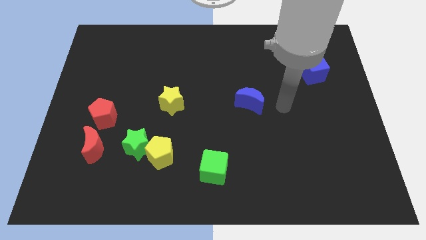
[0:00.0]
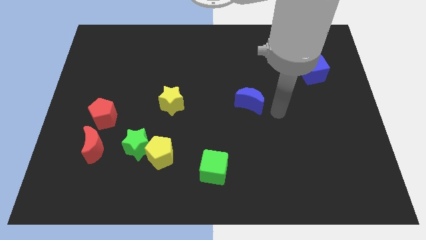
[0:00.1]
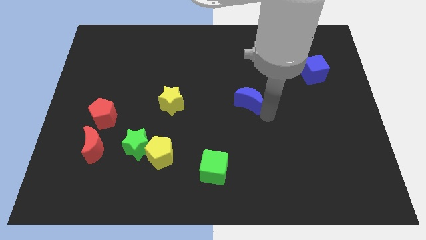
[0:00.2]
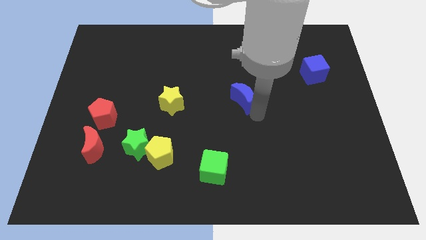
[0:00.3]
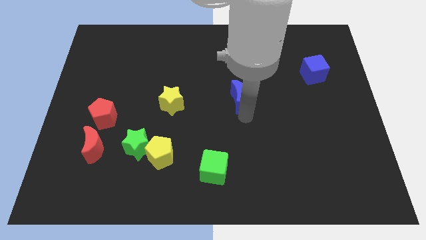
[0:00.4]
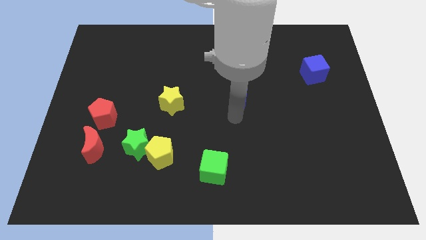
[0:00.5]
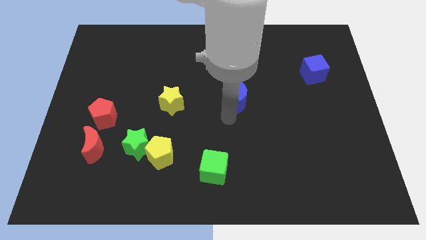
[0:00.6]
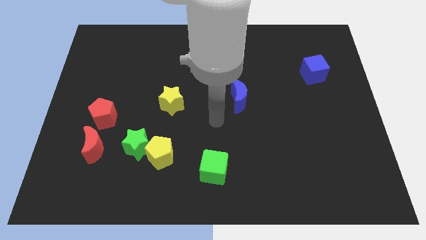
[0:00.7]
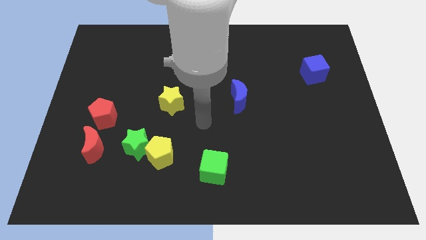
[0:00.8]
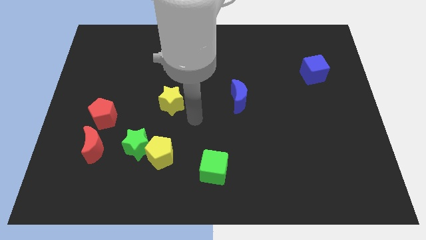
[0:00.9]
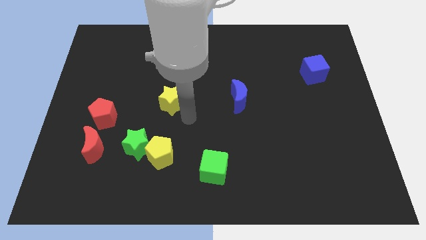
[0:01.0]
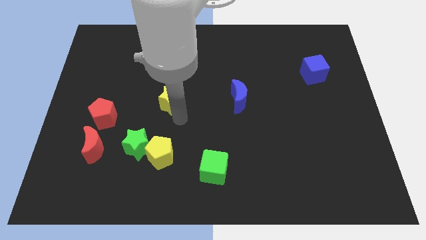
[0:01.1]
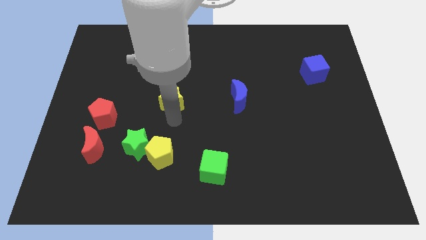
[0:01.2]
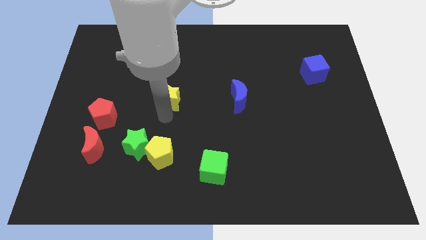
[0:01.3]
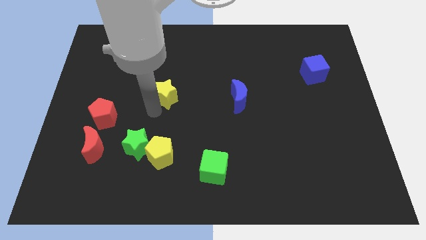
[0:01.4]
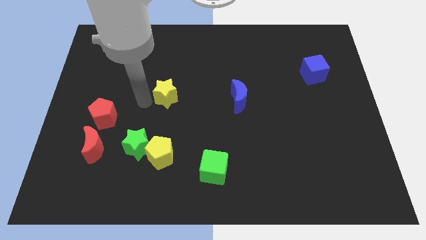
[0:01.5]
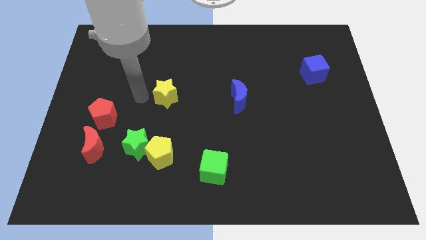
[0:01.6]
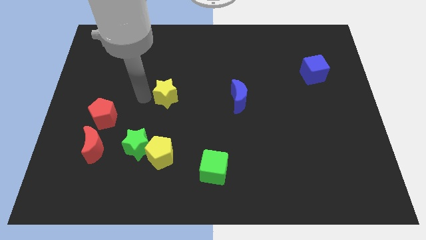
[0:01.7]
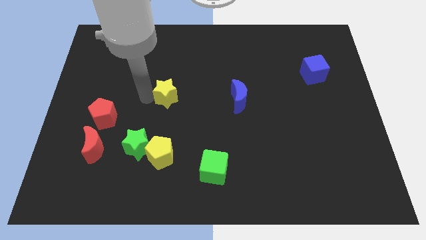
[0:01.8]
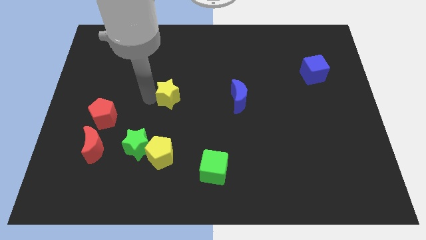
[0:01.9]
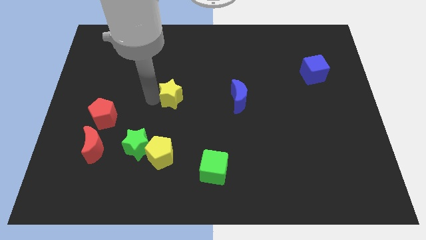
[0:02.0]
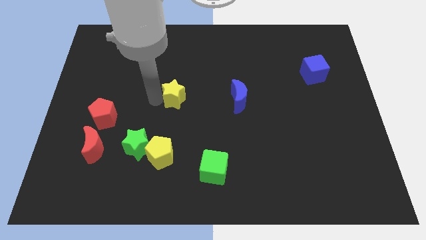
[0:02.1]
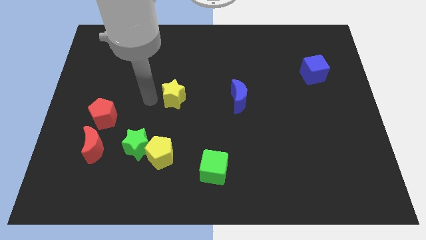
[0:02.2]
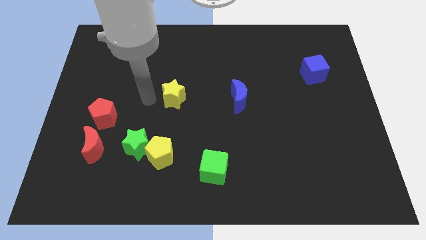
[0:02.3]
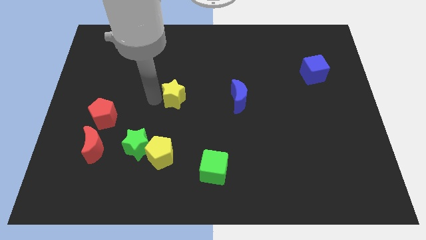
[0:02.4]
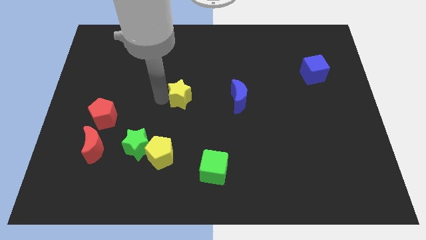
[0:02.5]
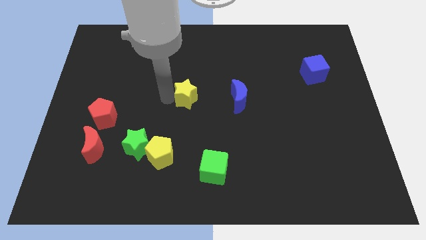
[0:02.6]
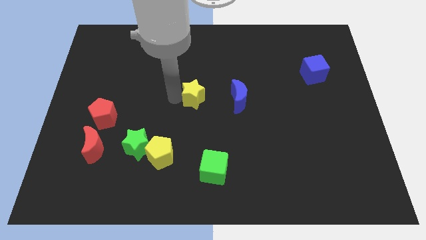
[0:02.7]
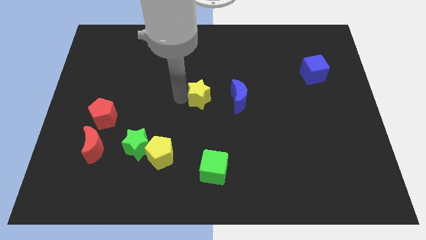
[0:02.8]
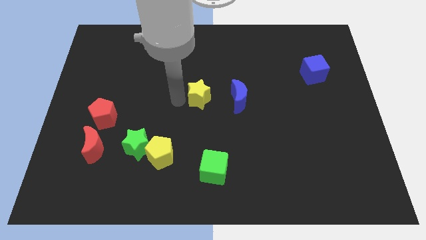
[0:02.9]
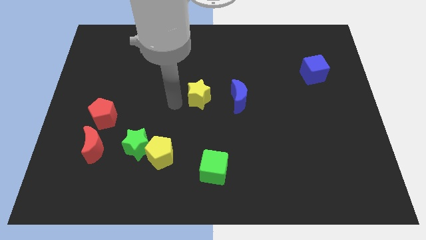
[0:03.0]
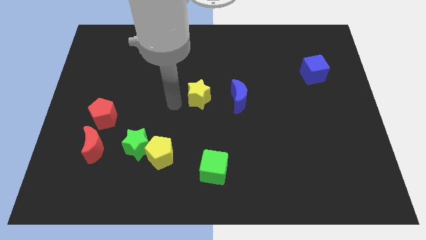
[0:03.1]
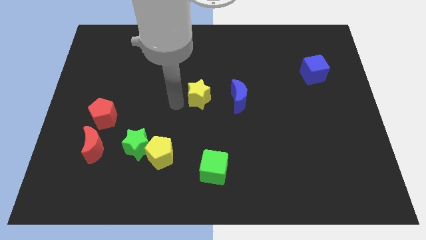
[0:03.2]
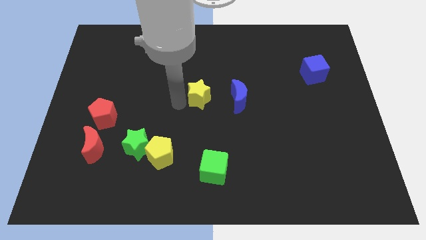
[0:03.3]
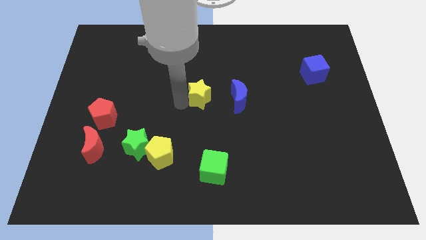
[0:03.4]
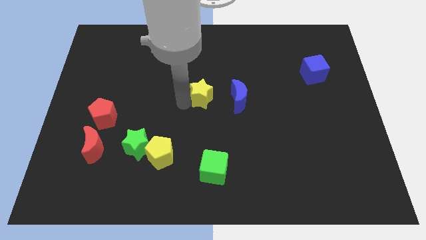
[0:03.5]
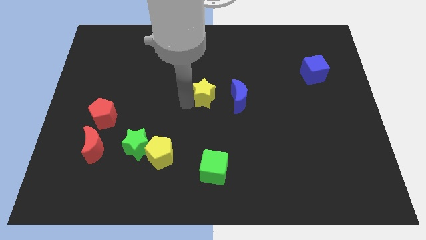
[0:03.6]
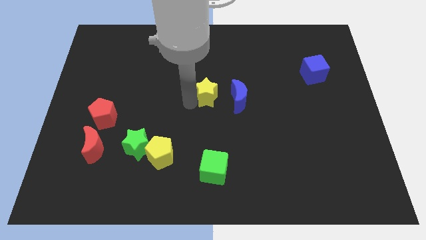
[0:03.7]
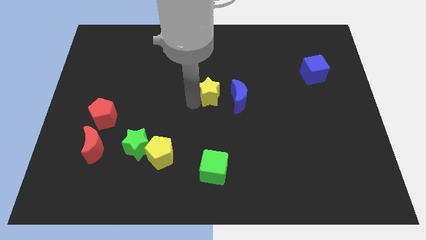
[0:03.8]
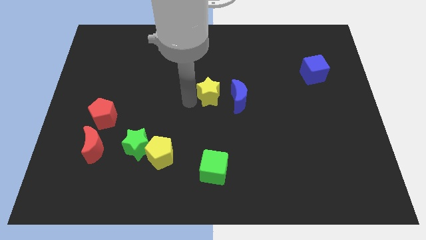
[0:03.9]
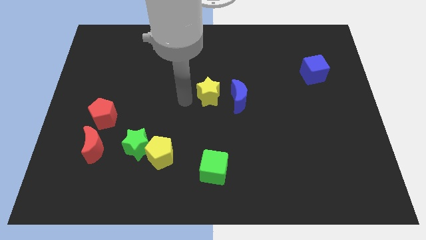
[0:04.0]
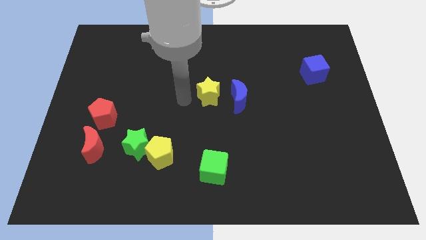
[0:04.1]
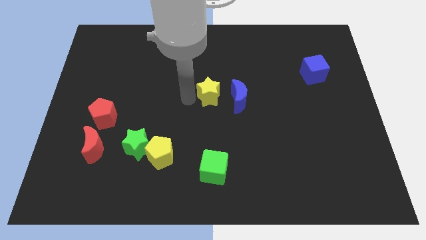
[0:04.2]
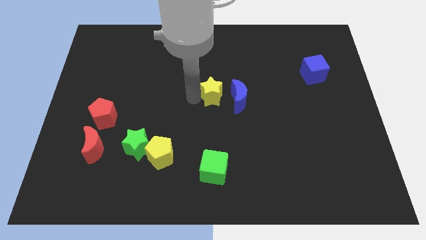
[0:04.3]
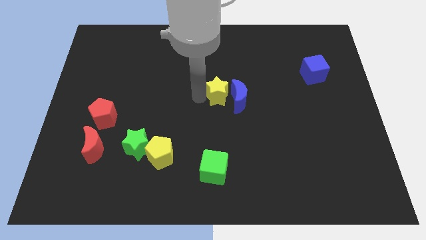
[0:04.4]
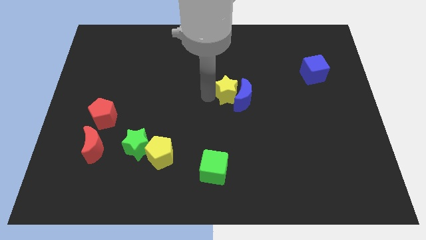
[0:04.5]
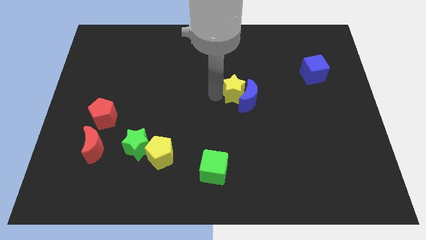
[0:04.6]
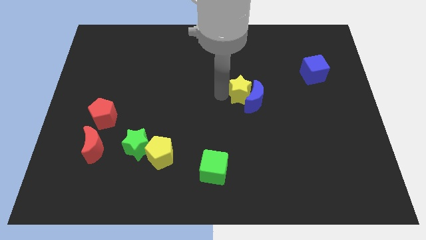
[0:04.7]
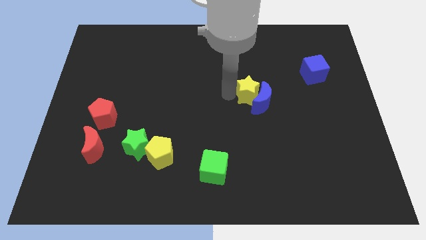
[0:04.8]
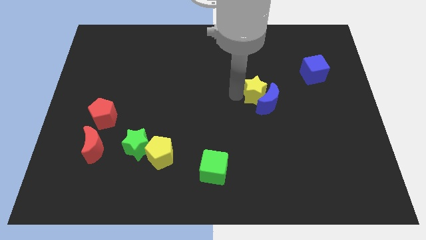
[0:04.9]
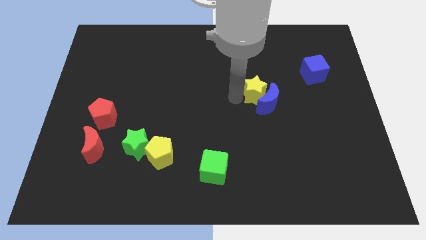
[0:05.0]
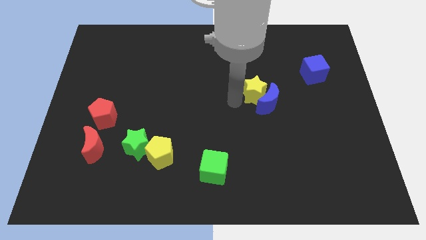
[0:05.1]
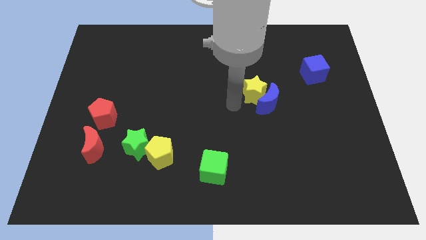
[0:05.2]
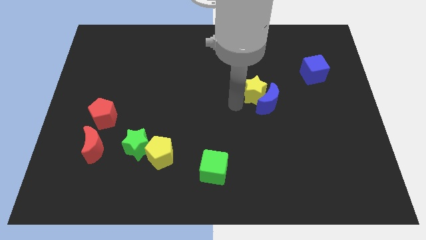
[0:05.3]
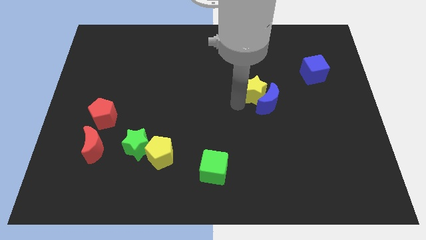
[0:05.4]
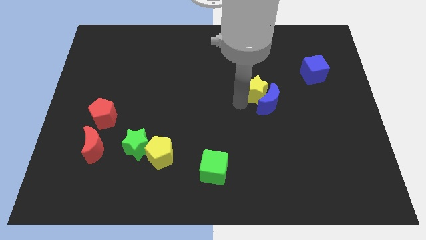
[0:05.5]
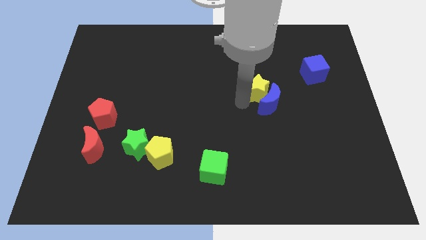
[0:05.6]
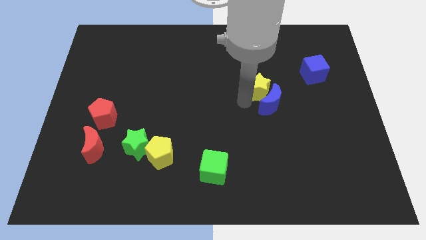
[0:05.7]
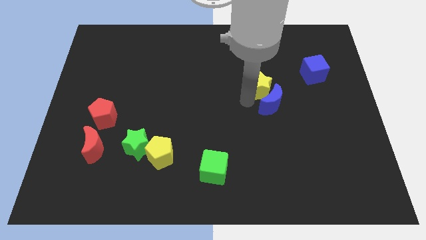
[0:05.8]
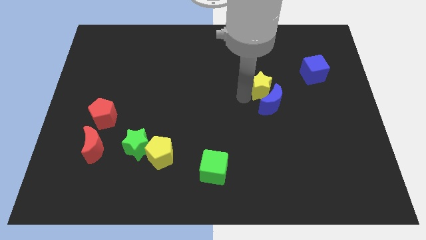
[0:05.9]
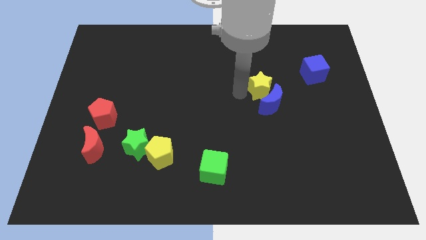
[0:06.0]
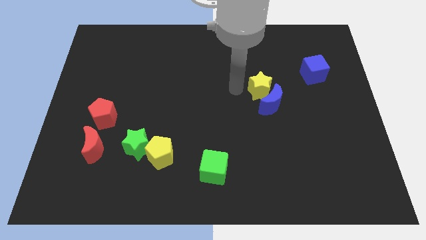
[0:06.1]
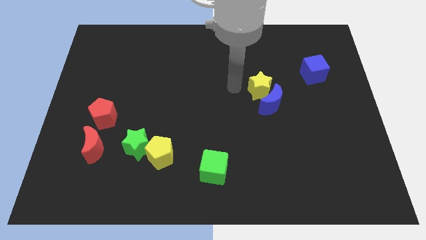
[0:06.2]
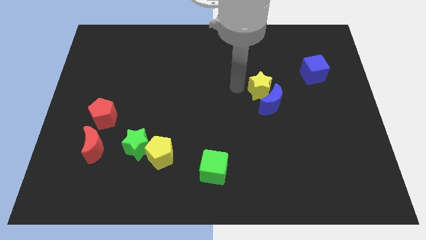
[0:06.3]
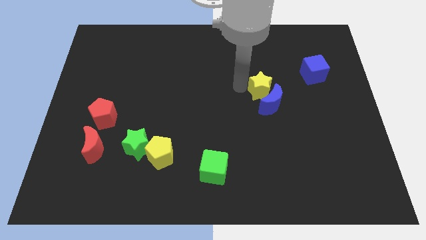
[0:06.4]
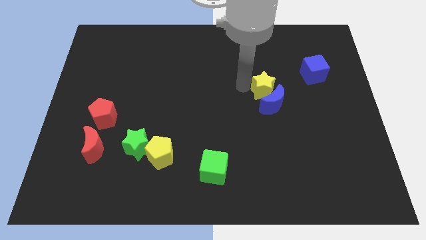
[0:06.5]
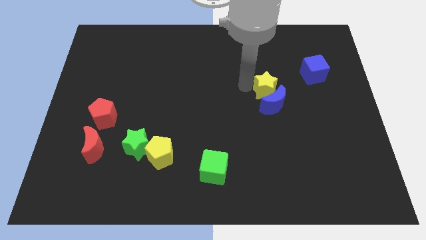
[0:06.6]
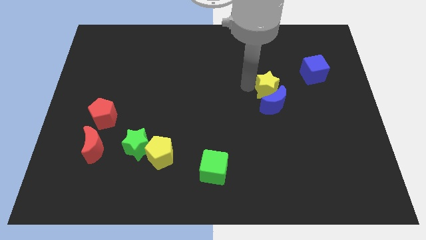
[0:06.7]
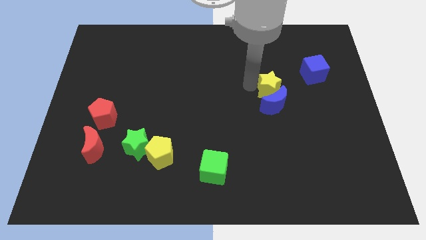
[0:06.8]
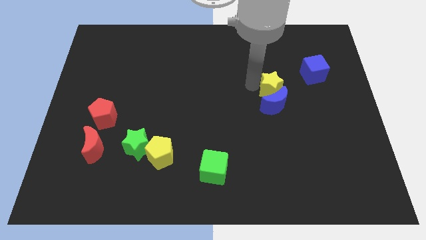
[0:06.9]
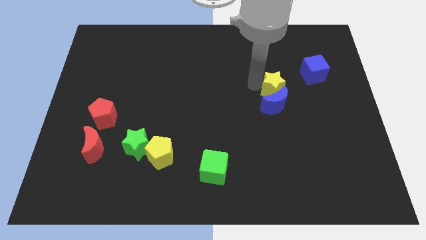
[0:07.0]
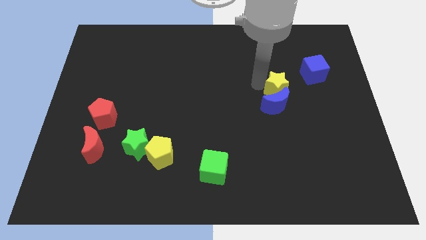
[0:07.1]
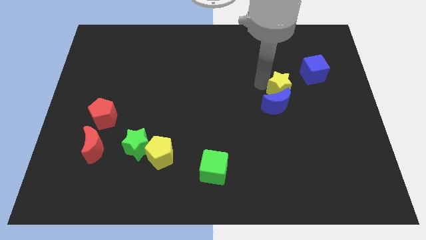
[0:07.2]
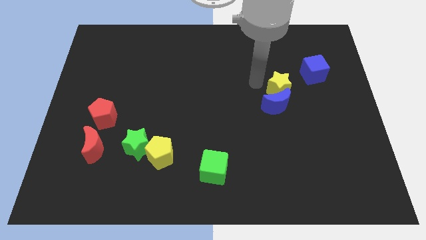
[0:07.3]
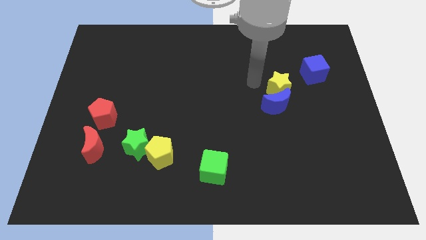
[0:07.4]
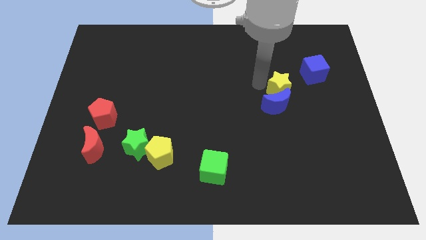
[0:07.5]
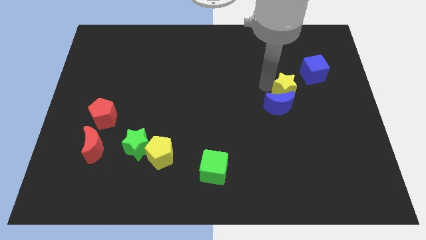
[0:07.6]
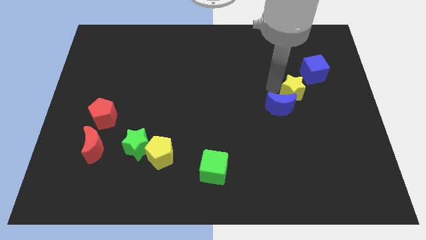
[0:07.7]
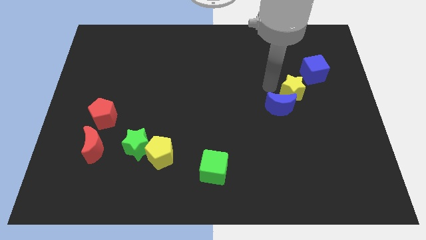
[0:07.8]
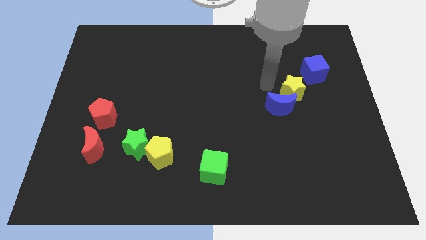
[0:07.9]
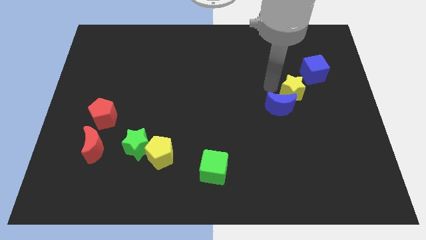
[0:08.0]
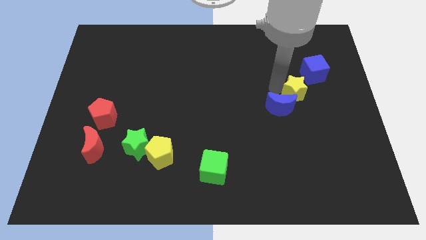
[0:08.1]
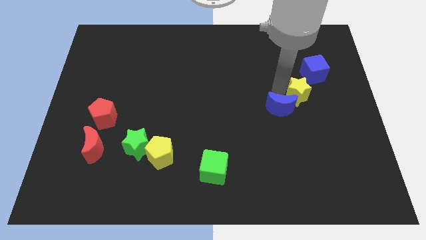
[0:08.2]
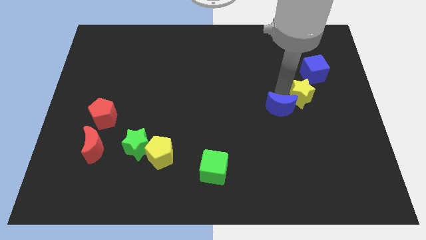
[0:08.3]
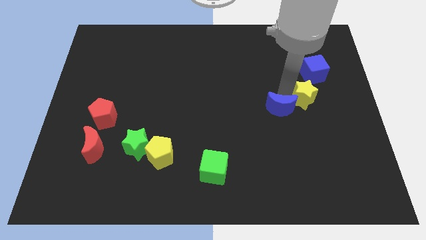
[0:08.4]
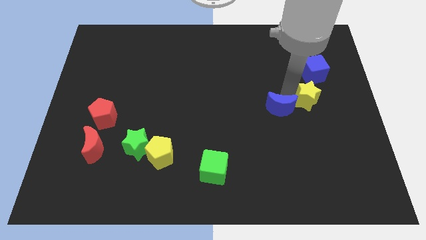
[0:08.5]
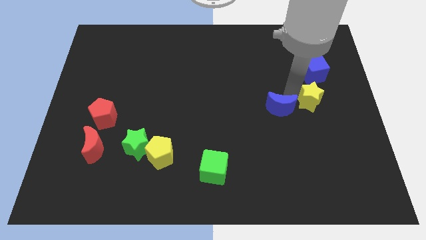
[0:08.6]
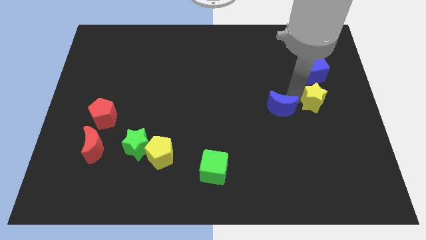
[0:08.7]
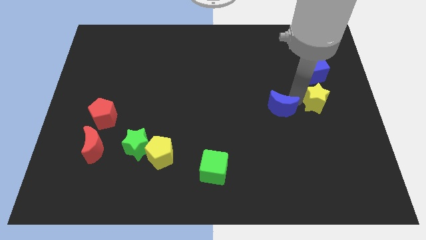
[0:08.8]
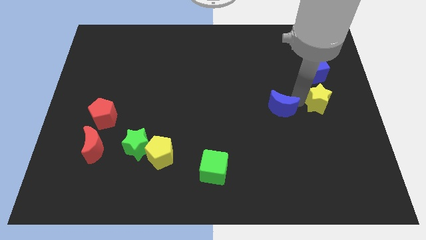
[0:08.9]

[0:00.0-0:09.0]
push the yellow star to the right side
